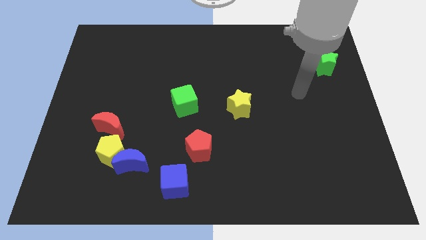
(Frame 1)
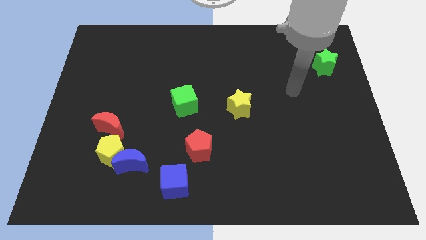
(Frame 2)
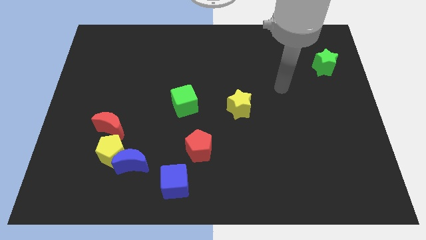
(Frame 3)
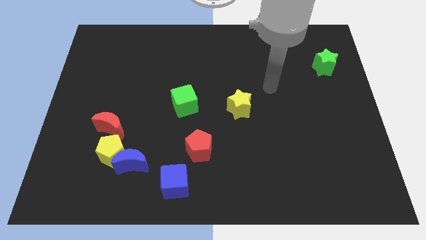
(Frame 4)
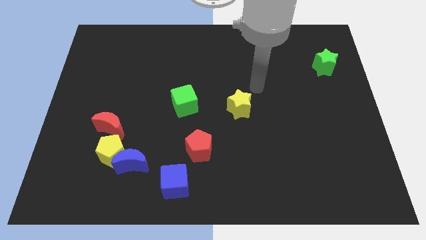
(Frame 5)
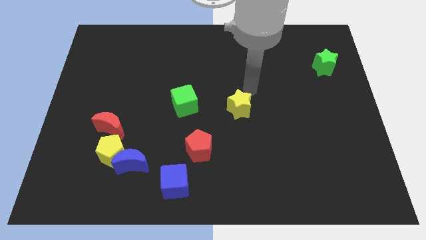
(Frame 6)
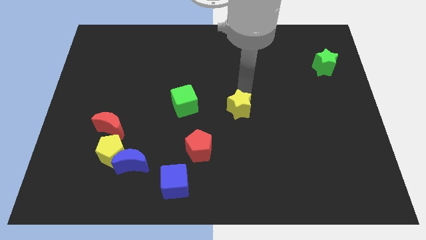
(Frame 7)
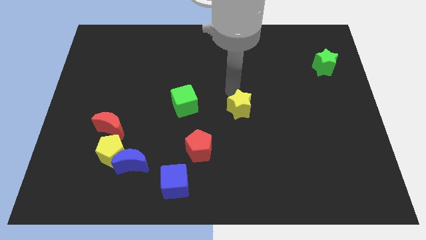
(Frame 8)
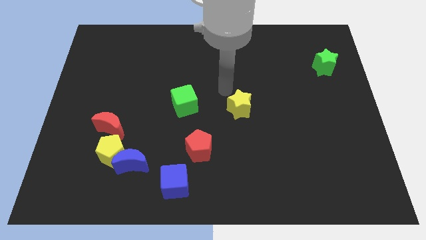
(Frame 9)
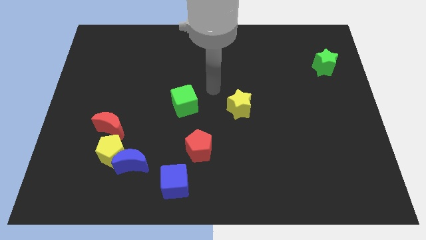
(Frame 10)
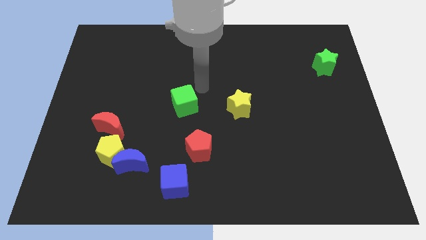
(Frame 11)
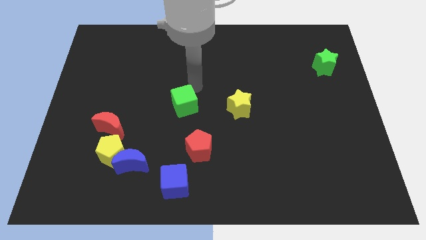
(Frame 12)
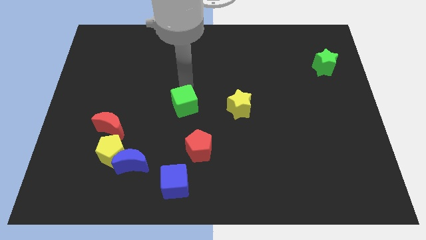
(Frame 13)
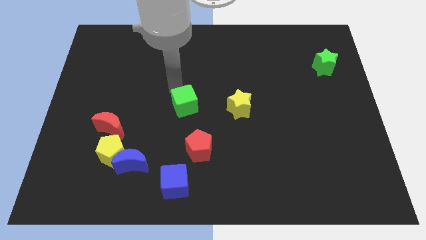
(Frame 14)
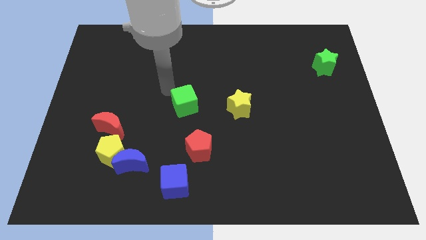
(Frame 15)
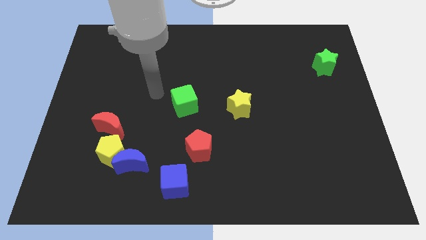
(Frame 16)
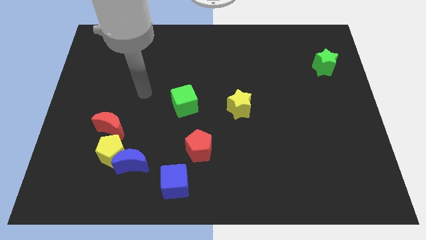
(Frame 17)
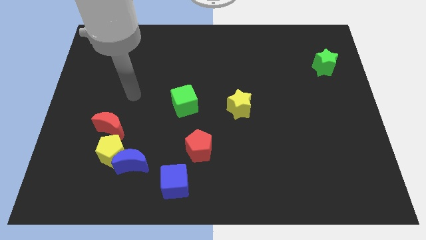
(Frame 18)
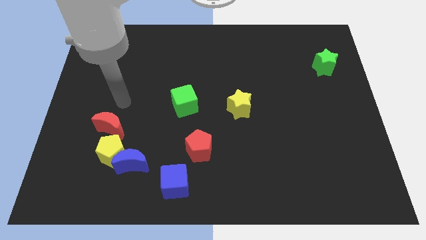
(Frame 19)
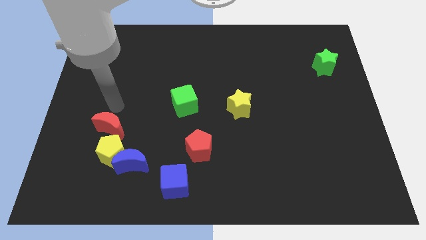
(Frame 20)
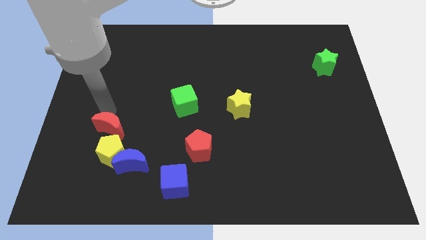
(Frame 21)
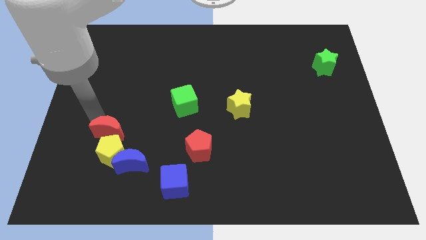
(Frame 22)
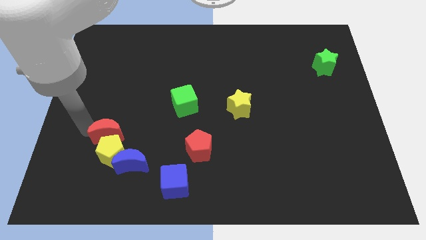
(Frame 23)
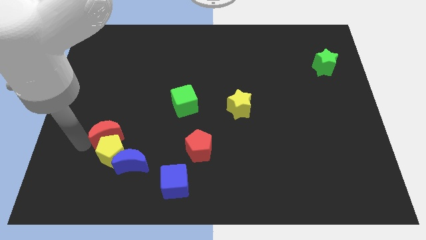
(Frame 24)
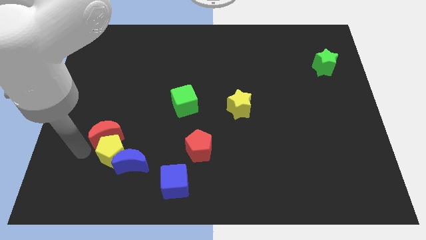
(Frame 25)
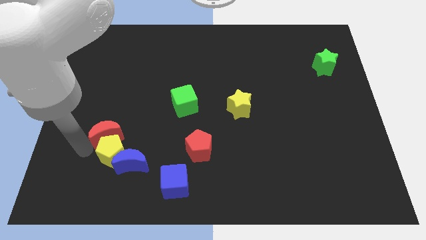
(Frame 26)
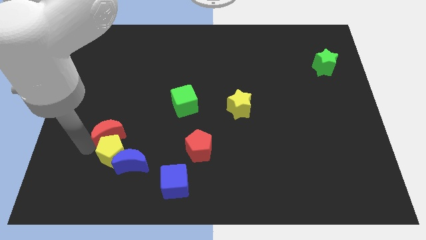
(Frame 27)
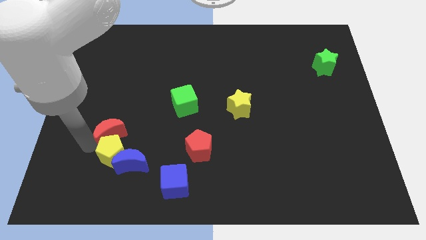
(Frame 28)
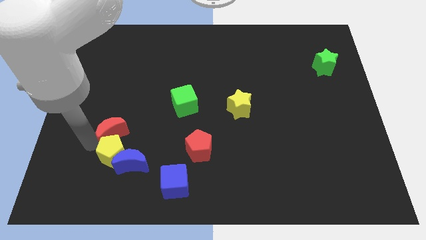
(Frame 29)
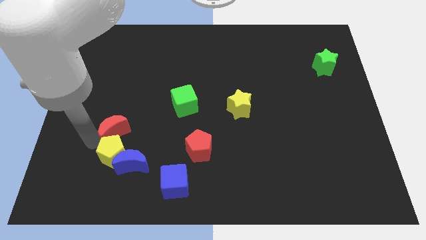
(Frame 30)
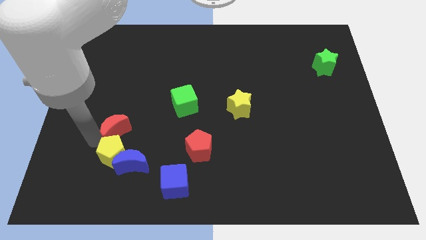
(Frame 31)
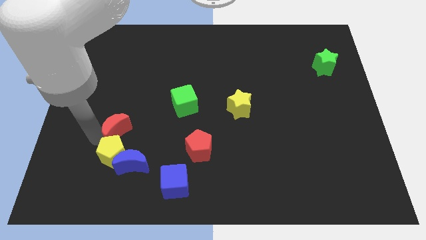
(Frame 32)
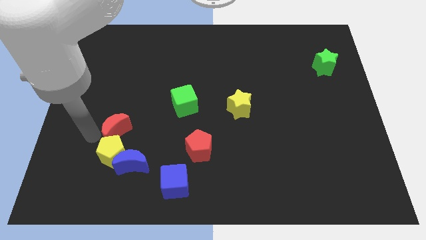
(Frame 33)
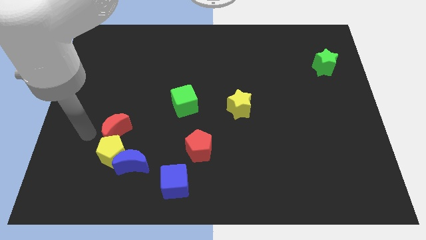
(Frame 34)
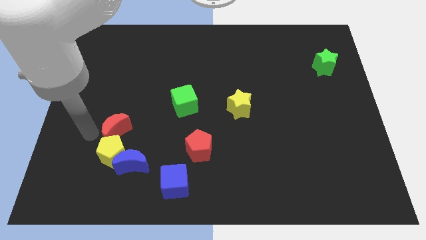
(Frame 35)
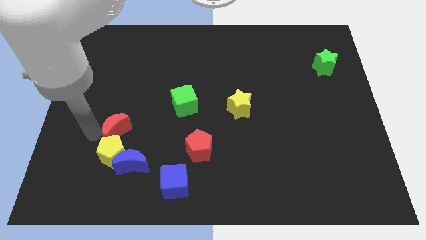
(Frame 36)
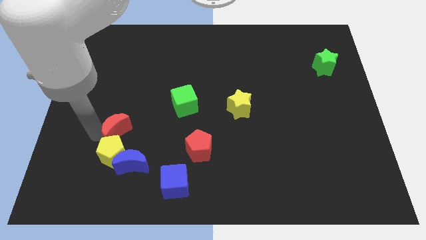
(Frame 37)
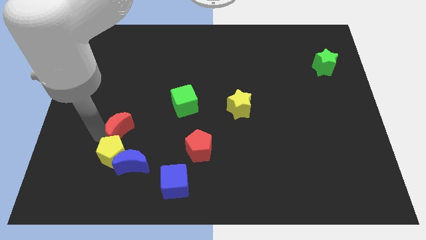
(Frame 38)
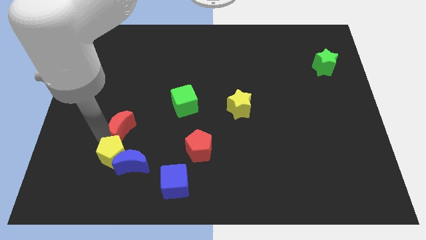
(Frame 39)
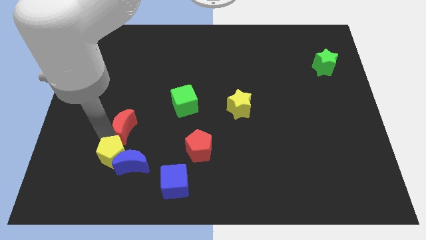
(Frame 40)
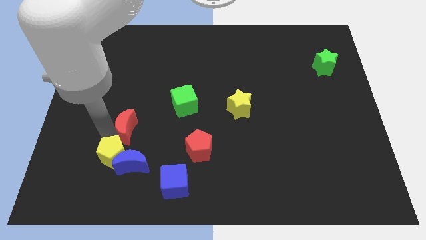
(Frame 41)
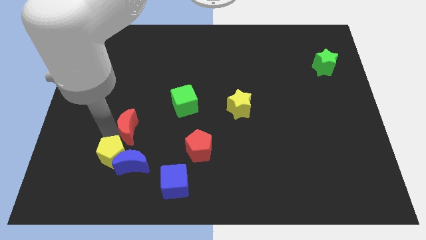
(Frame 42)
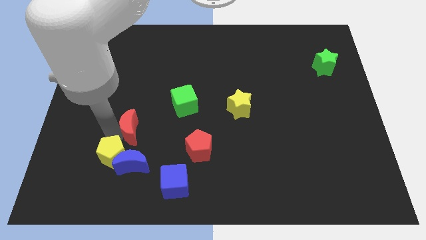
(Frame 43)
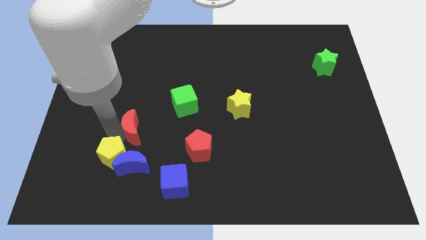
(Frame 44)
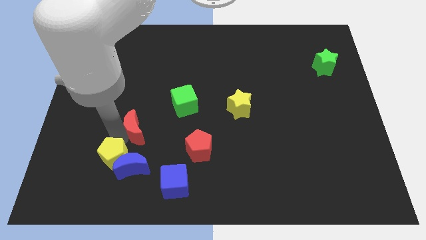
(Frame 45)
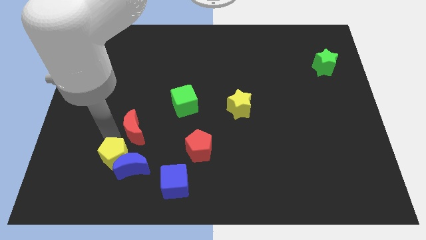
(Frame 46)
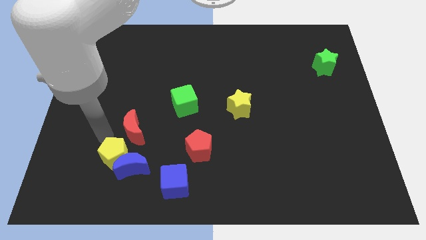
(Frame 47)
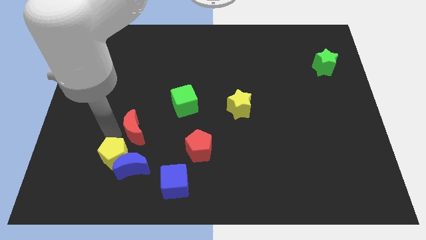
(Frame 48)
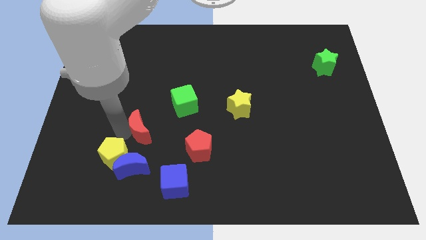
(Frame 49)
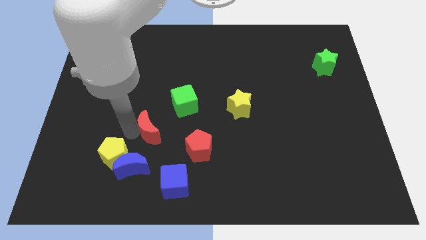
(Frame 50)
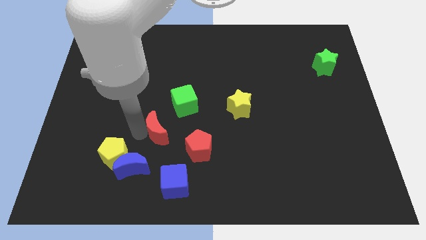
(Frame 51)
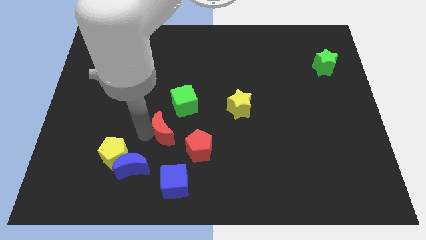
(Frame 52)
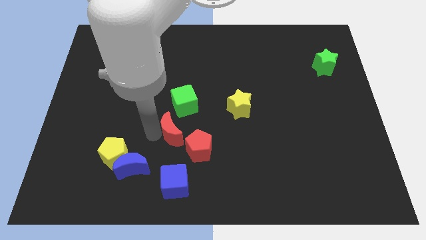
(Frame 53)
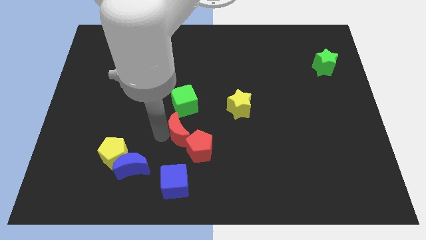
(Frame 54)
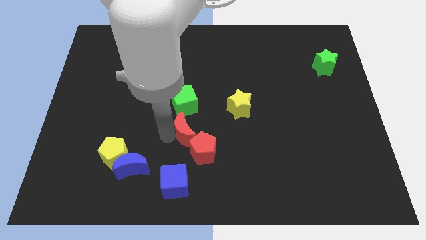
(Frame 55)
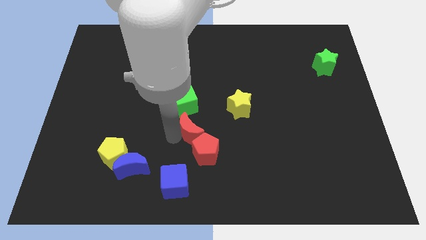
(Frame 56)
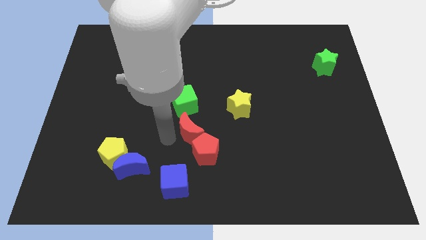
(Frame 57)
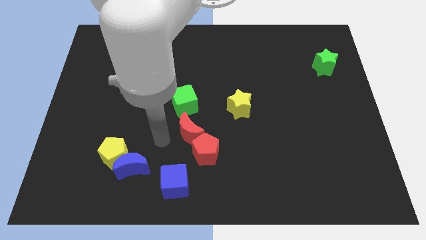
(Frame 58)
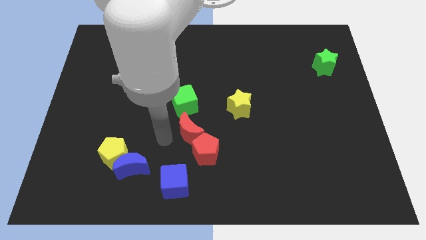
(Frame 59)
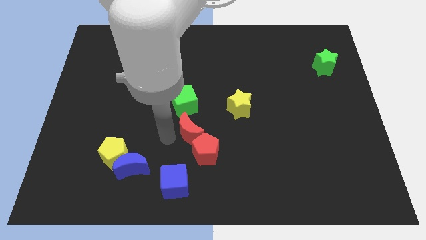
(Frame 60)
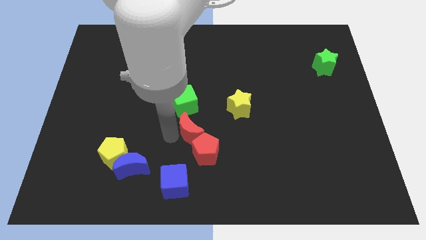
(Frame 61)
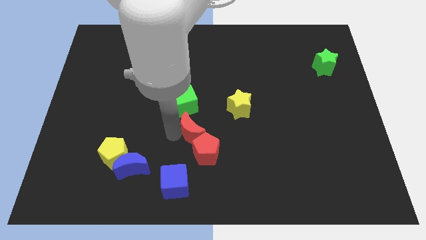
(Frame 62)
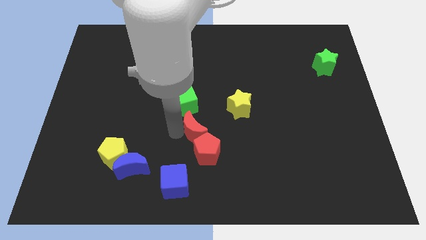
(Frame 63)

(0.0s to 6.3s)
put the red moon to the bottom left of the yellow star

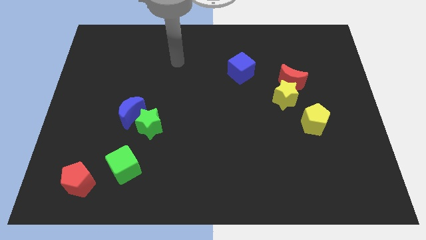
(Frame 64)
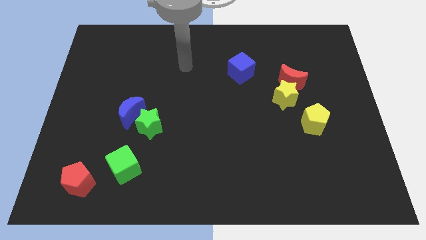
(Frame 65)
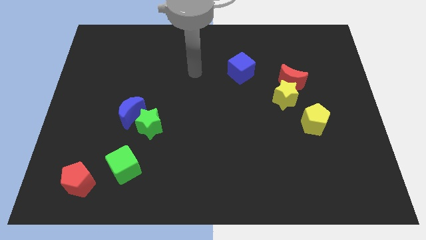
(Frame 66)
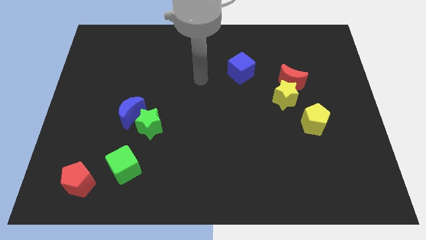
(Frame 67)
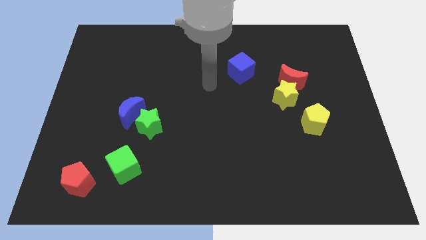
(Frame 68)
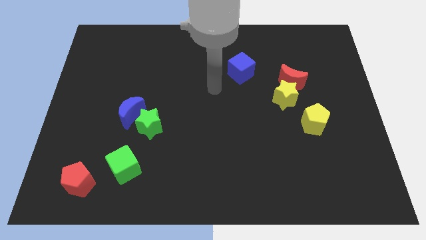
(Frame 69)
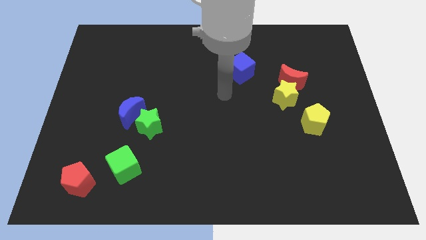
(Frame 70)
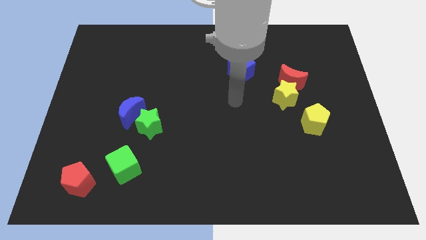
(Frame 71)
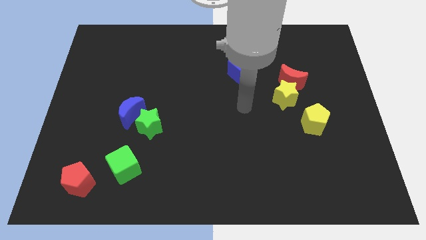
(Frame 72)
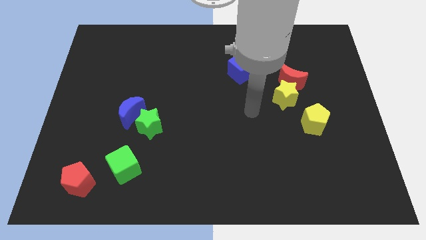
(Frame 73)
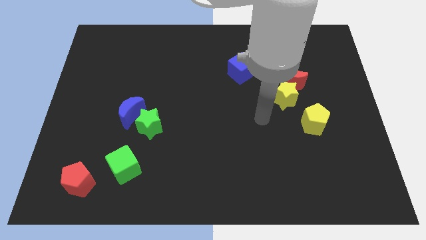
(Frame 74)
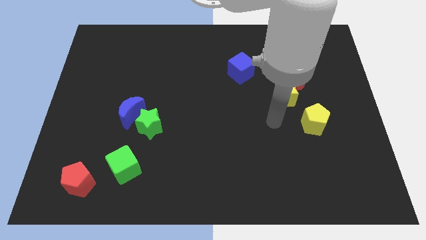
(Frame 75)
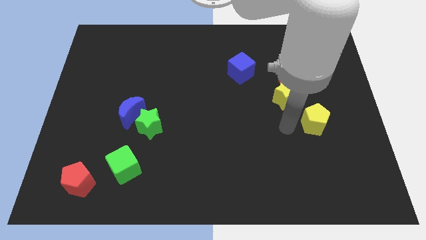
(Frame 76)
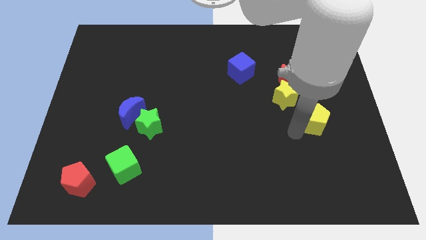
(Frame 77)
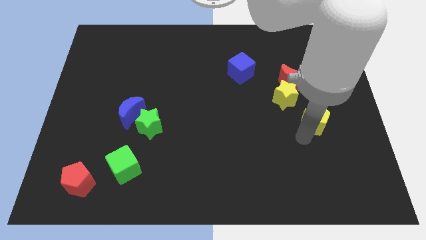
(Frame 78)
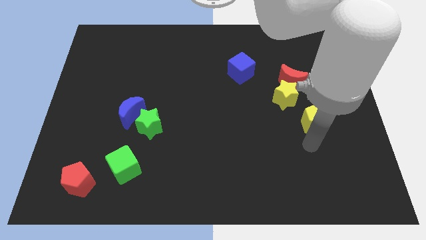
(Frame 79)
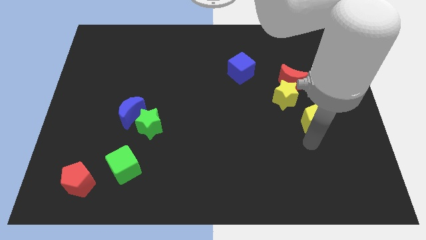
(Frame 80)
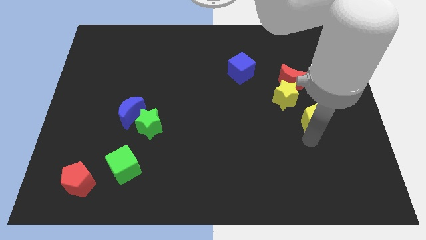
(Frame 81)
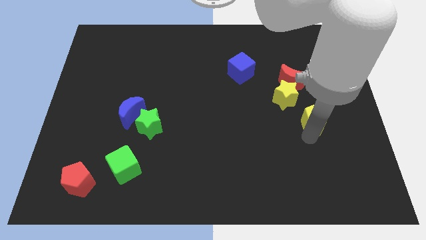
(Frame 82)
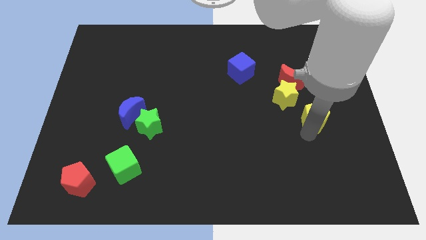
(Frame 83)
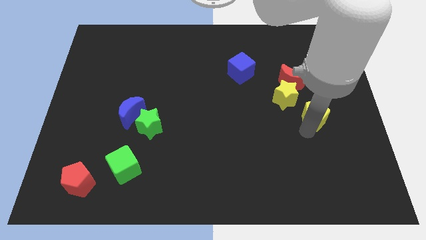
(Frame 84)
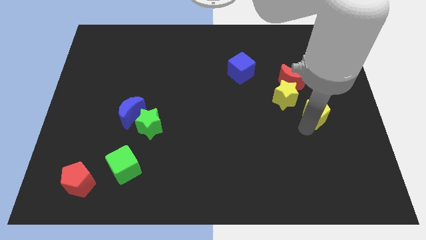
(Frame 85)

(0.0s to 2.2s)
push the yellow pentagon to the bottom right side of the red moon
